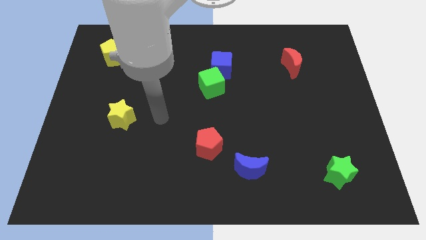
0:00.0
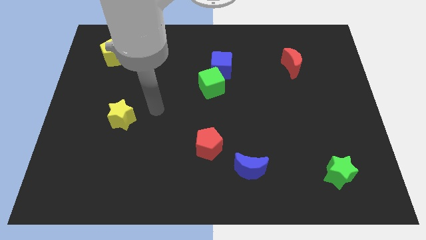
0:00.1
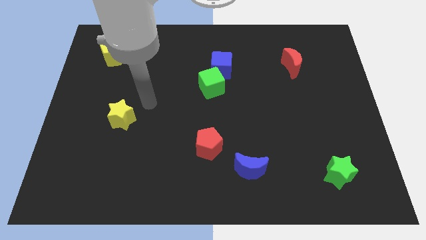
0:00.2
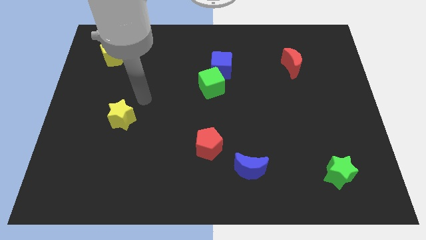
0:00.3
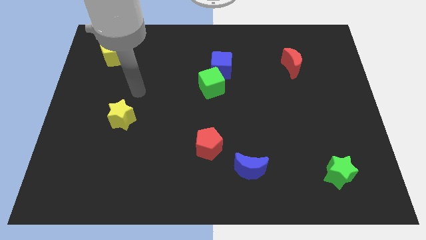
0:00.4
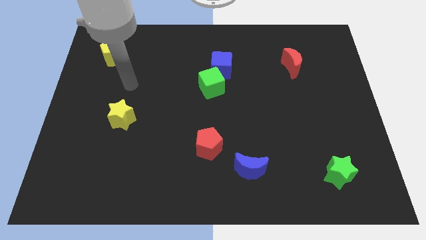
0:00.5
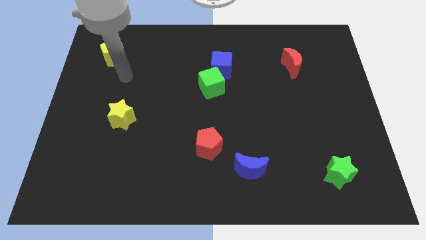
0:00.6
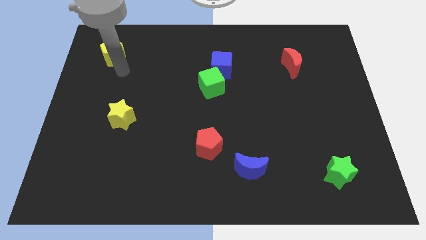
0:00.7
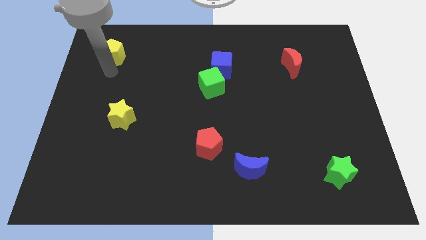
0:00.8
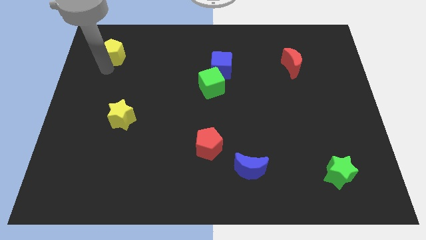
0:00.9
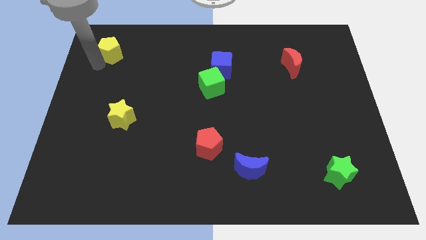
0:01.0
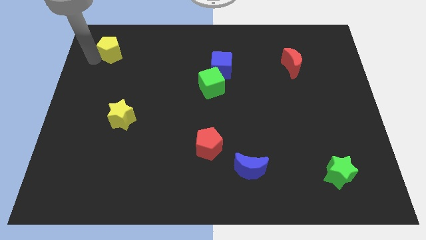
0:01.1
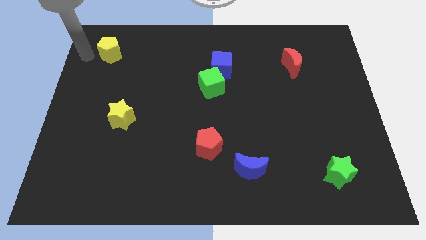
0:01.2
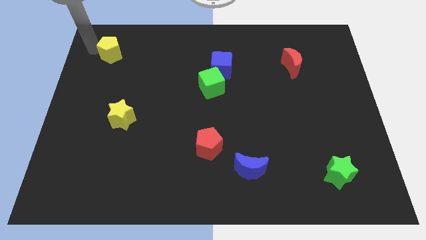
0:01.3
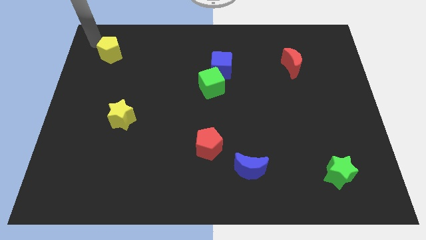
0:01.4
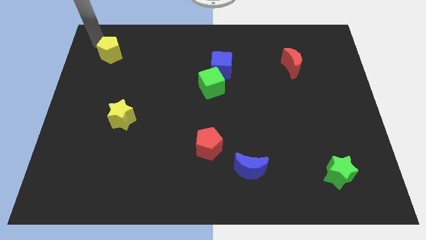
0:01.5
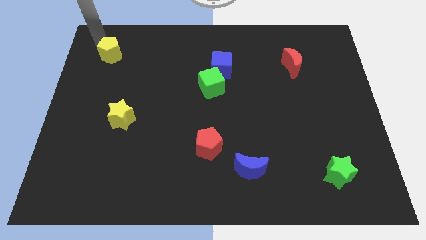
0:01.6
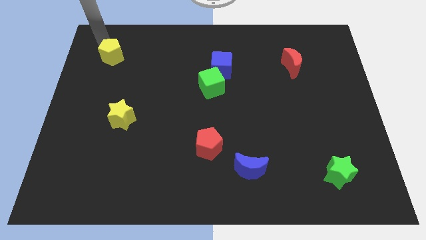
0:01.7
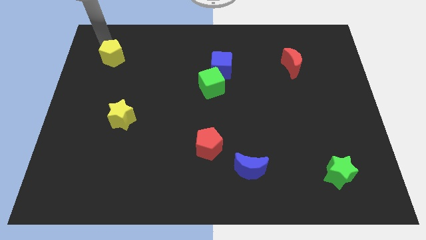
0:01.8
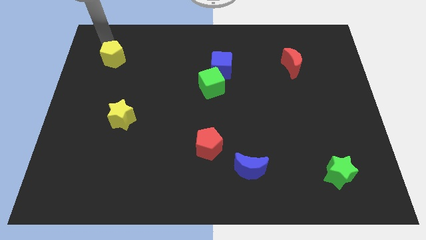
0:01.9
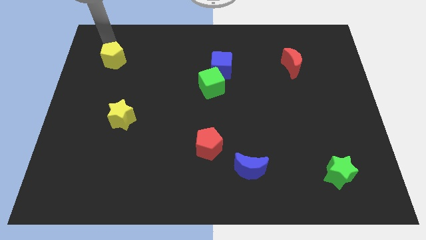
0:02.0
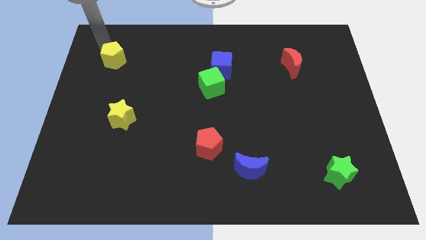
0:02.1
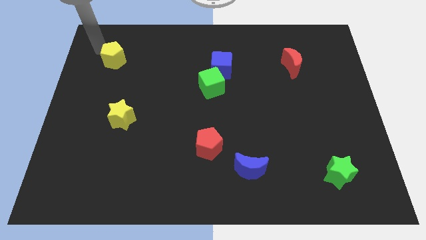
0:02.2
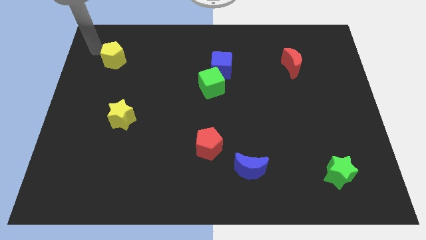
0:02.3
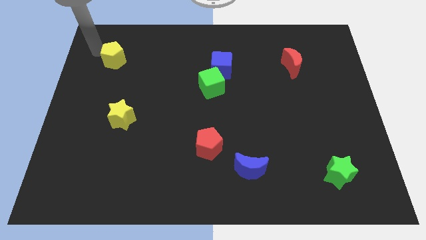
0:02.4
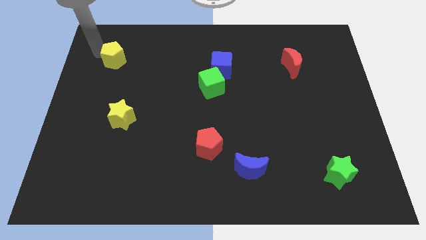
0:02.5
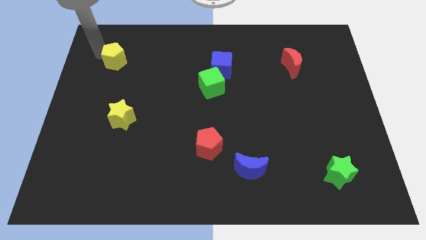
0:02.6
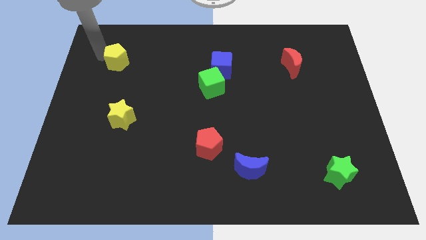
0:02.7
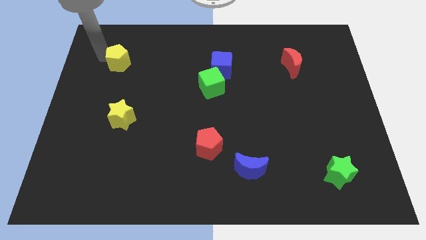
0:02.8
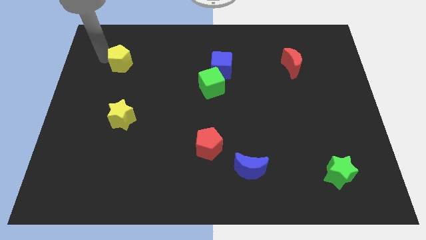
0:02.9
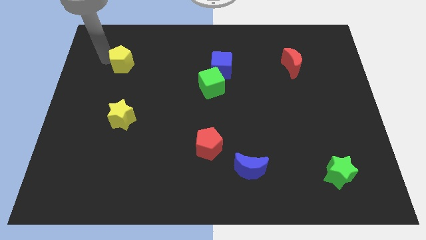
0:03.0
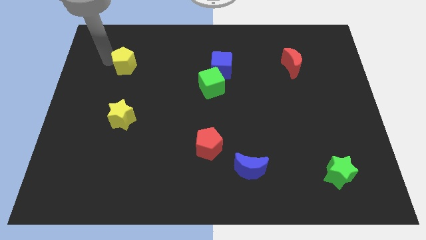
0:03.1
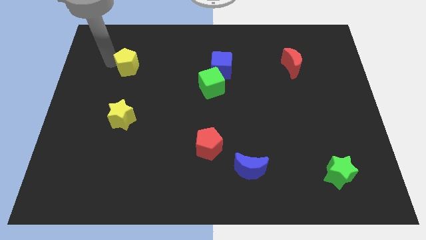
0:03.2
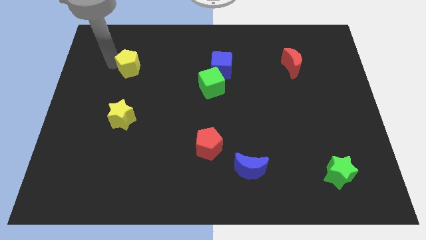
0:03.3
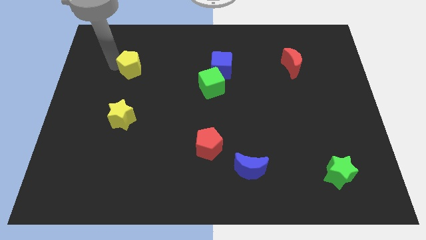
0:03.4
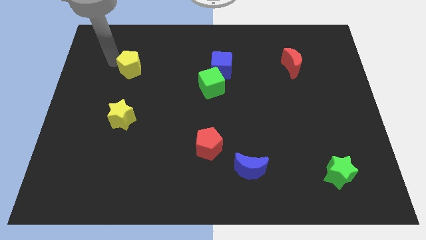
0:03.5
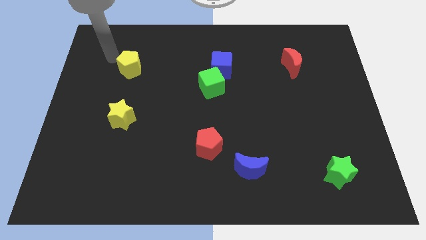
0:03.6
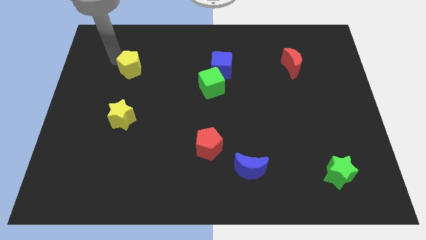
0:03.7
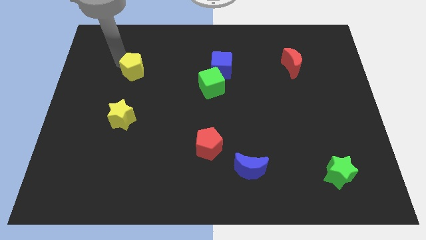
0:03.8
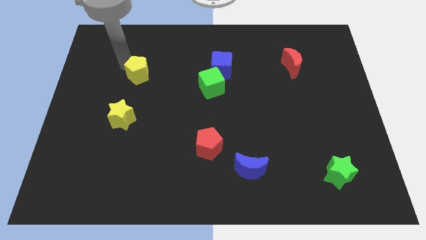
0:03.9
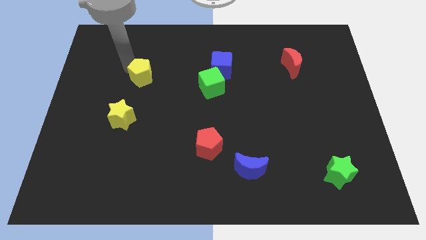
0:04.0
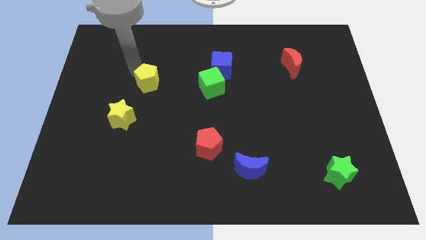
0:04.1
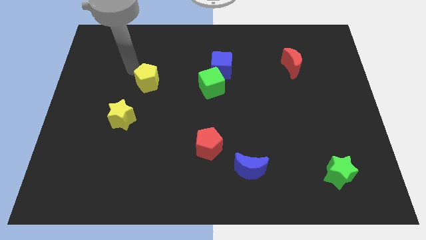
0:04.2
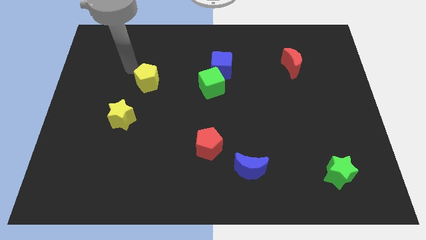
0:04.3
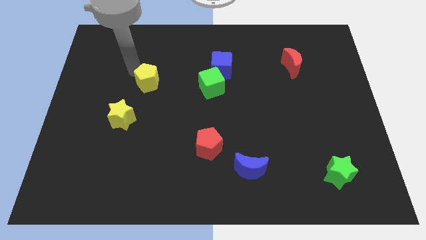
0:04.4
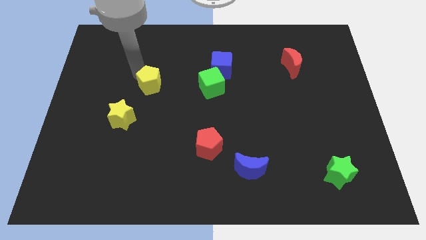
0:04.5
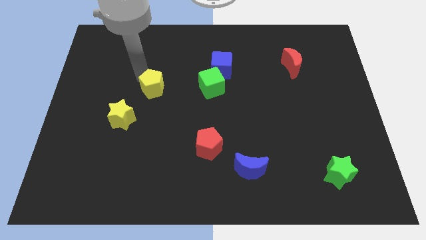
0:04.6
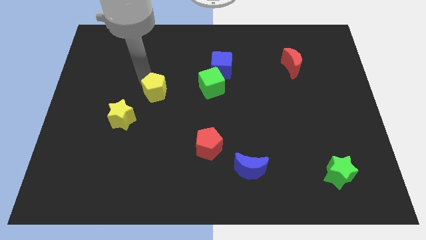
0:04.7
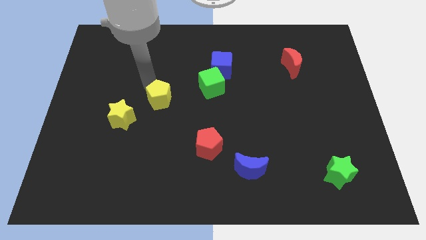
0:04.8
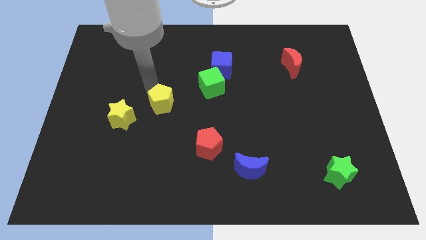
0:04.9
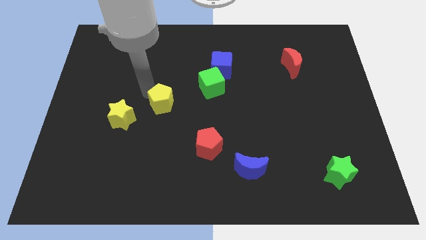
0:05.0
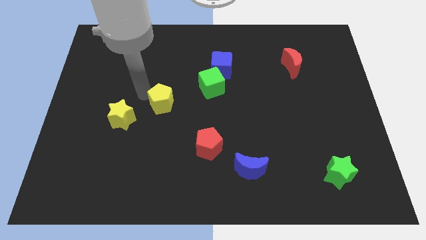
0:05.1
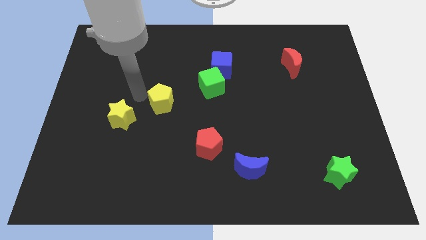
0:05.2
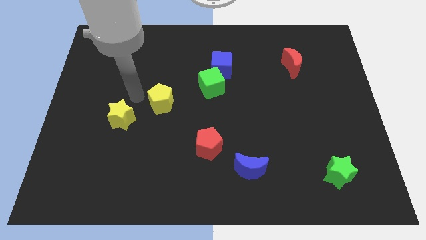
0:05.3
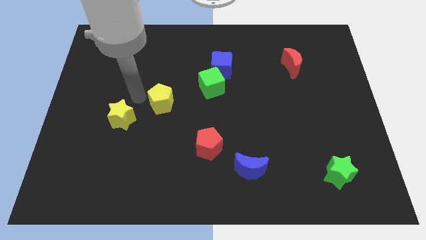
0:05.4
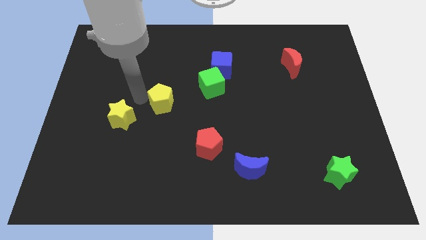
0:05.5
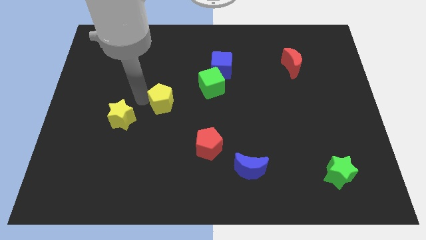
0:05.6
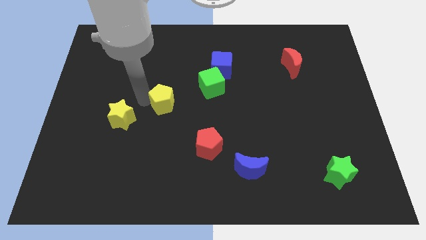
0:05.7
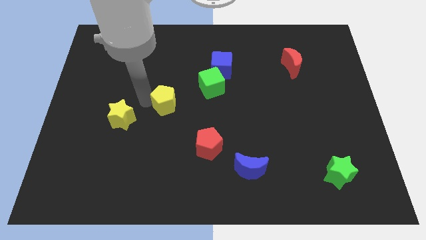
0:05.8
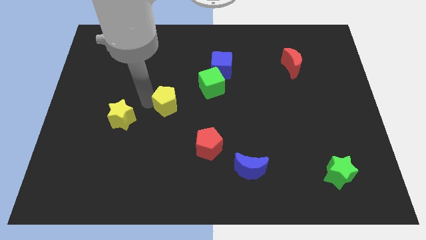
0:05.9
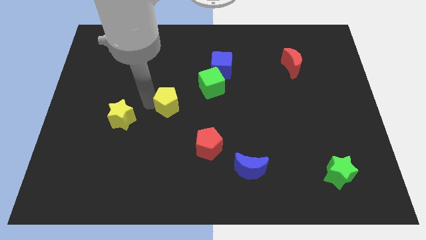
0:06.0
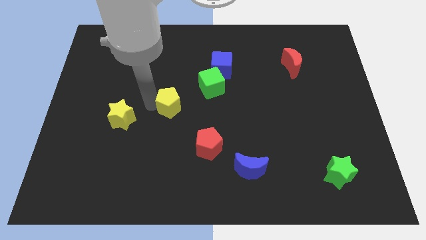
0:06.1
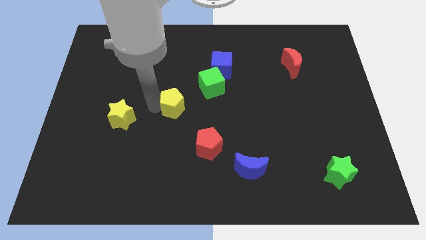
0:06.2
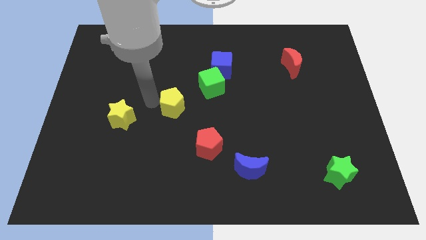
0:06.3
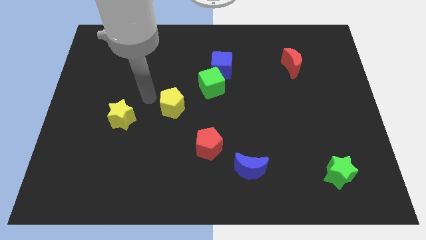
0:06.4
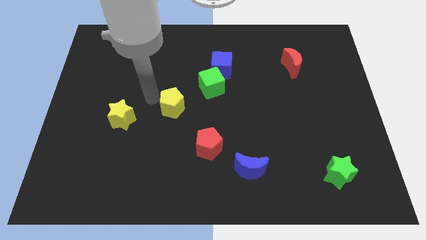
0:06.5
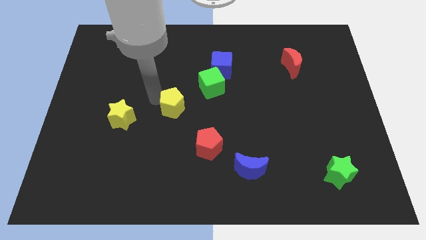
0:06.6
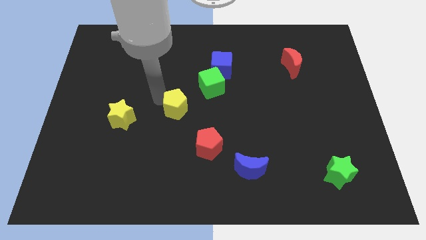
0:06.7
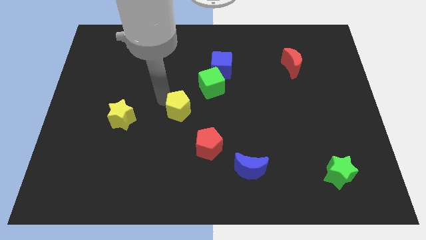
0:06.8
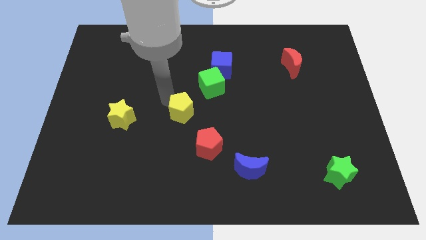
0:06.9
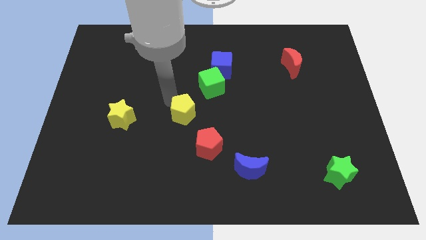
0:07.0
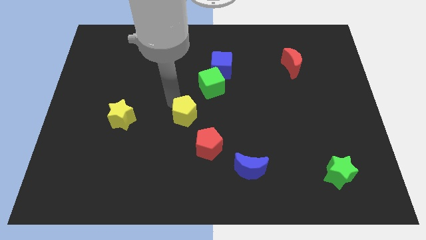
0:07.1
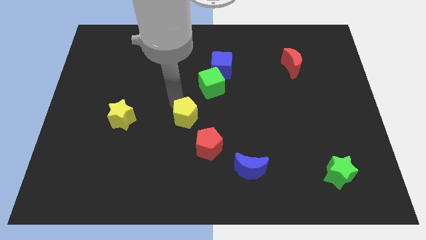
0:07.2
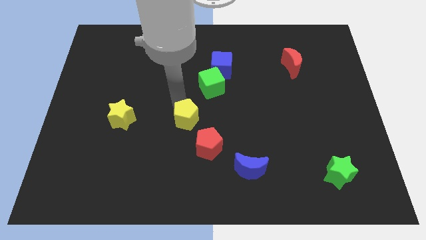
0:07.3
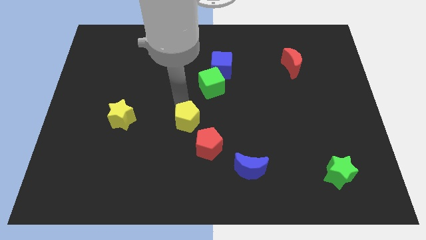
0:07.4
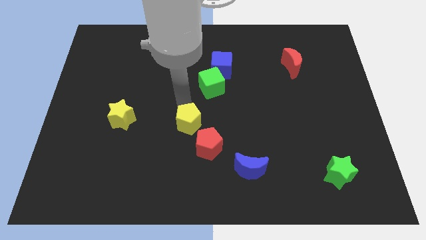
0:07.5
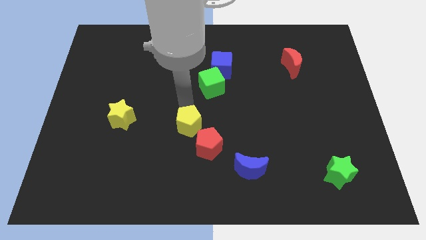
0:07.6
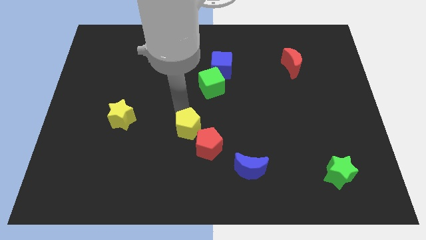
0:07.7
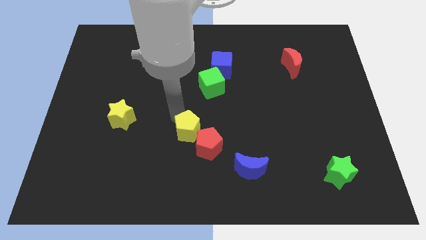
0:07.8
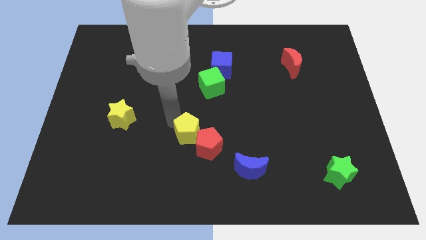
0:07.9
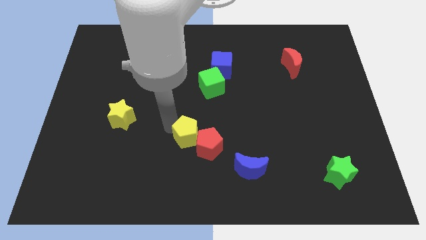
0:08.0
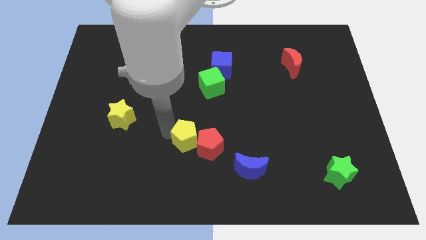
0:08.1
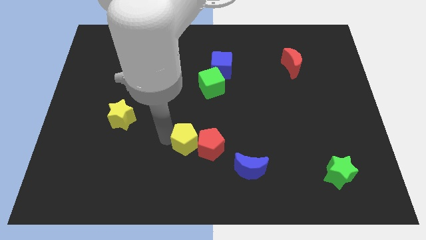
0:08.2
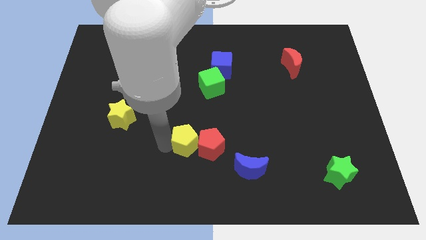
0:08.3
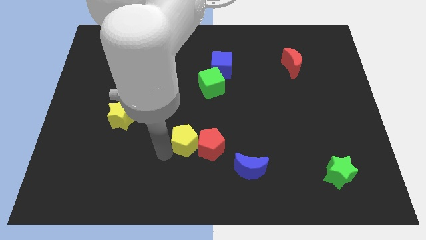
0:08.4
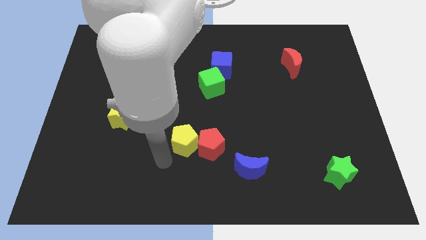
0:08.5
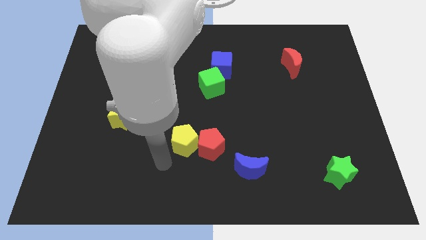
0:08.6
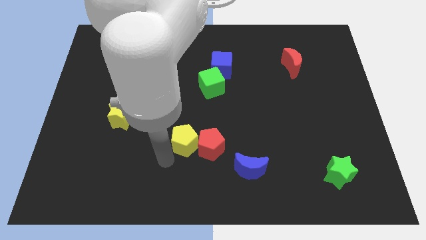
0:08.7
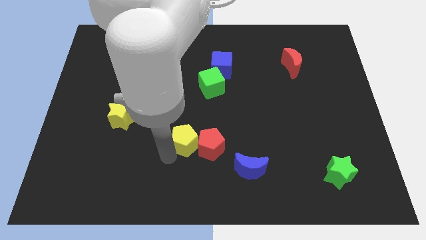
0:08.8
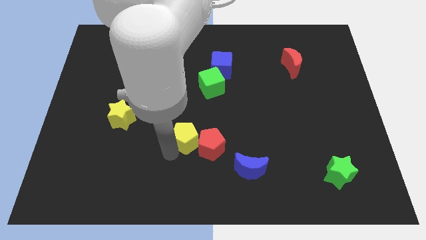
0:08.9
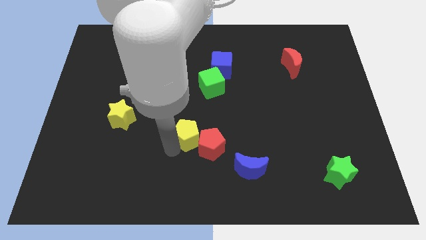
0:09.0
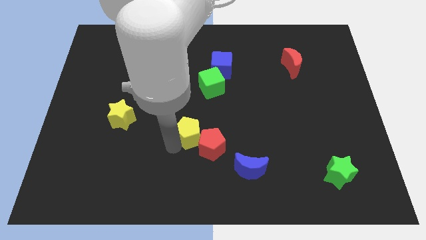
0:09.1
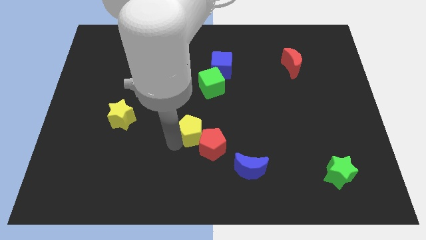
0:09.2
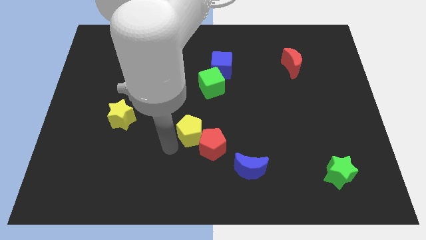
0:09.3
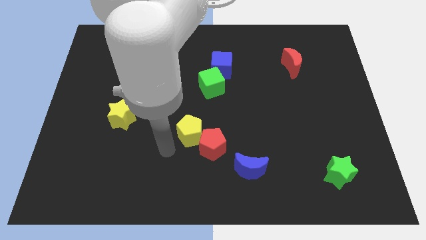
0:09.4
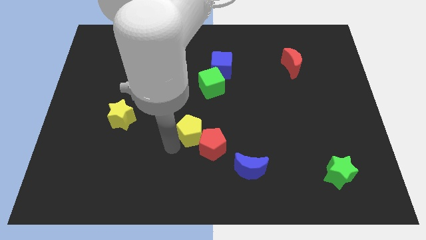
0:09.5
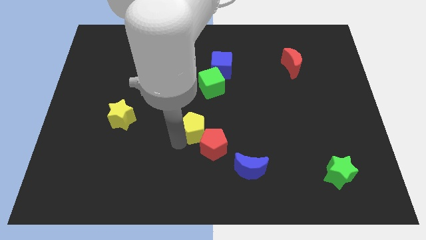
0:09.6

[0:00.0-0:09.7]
put the yellow pentagon to the bottom of the green cube
